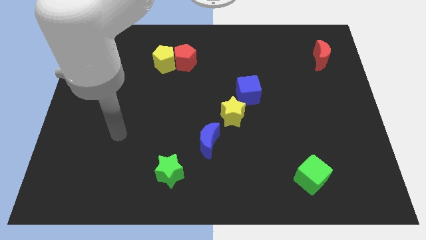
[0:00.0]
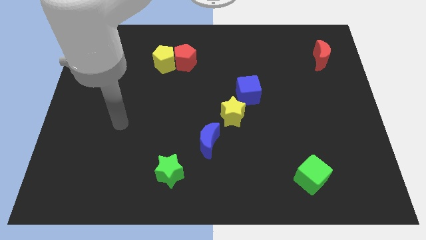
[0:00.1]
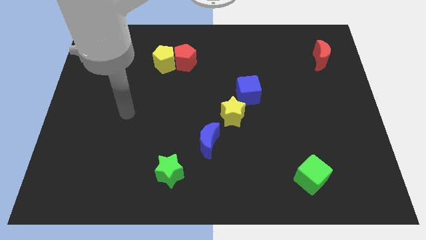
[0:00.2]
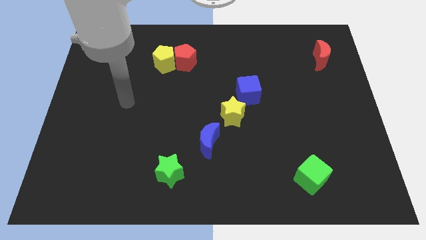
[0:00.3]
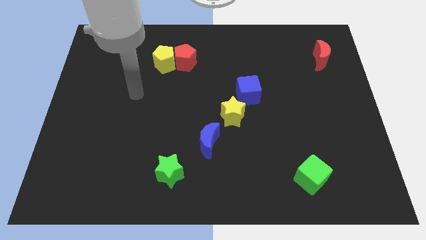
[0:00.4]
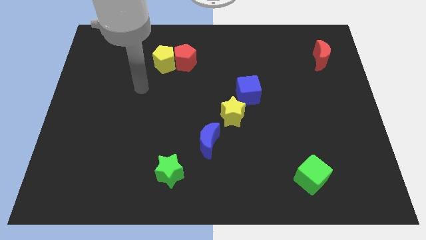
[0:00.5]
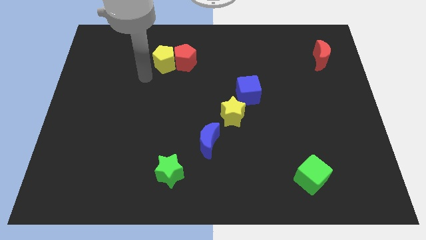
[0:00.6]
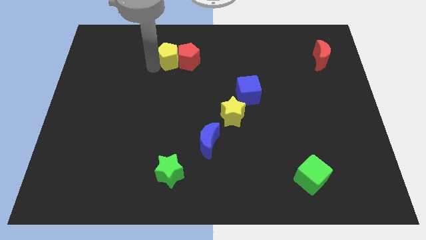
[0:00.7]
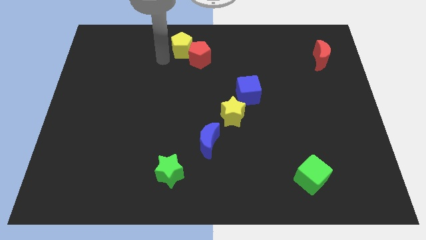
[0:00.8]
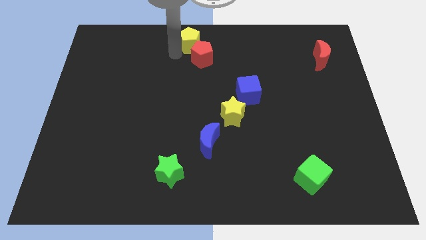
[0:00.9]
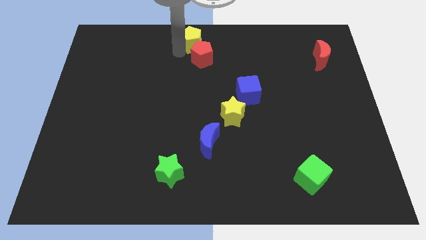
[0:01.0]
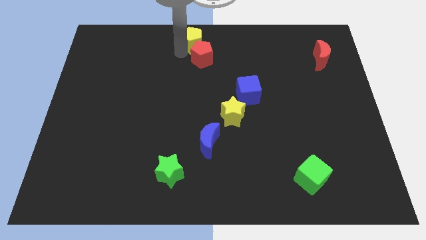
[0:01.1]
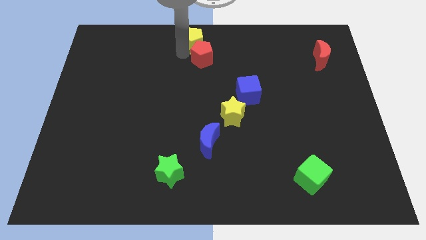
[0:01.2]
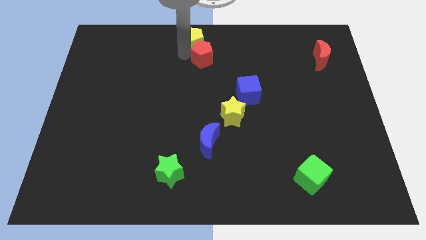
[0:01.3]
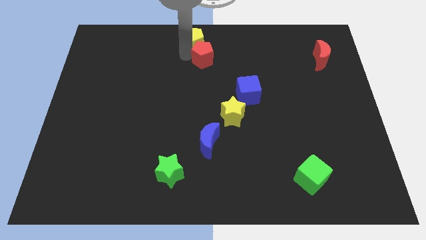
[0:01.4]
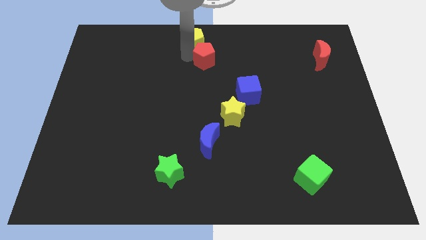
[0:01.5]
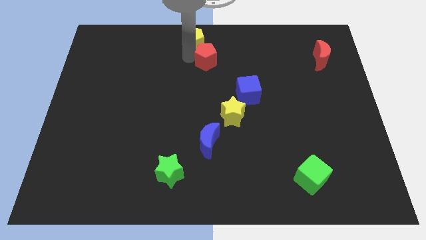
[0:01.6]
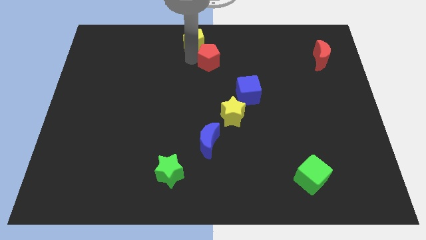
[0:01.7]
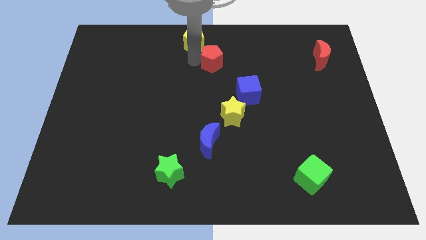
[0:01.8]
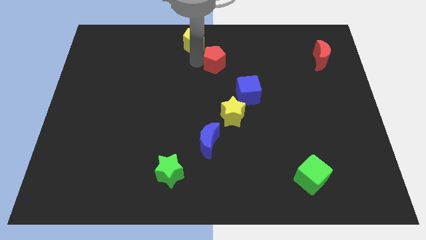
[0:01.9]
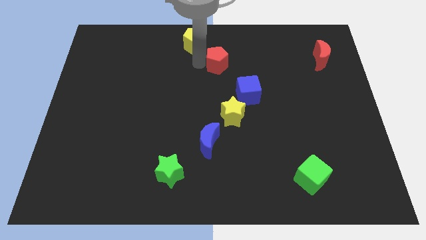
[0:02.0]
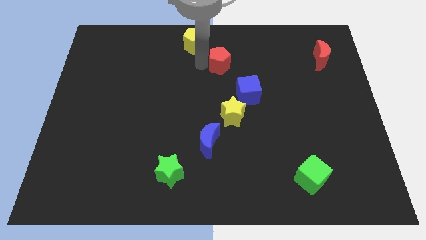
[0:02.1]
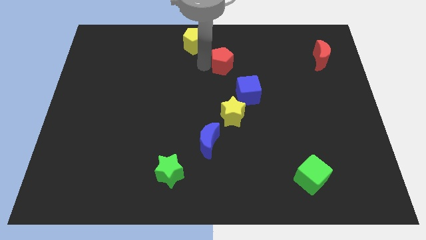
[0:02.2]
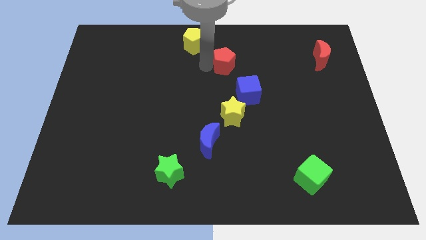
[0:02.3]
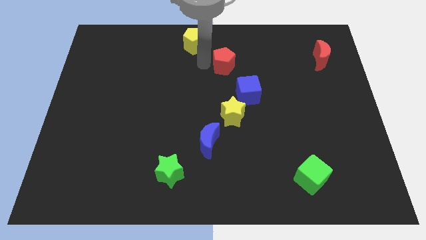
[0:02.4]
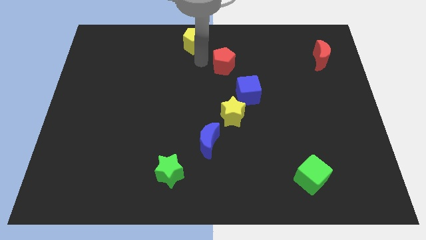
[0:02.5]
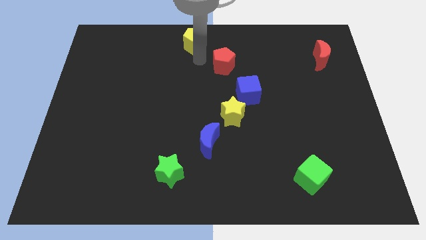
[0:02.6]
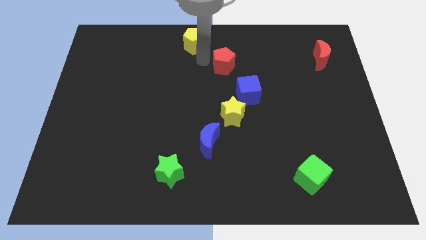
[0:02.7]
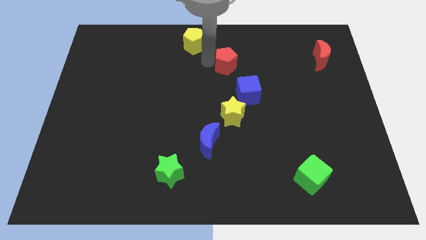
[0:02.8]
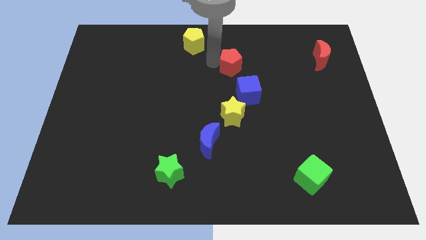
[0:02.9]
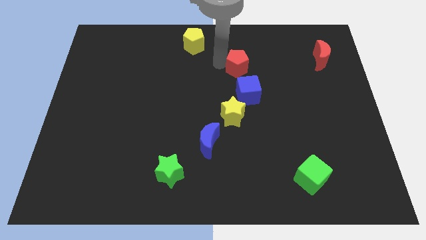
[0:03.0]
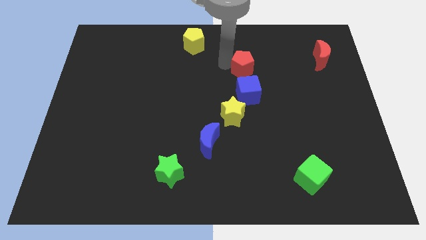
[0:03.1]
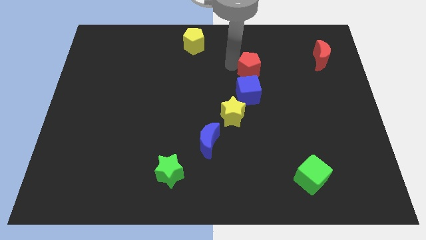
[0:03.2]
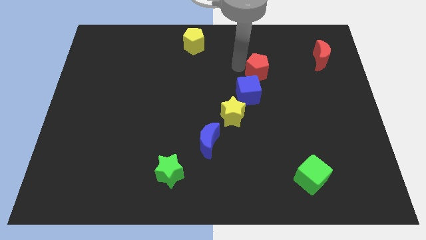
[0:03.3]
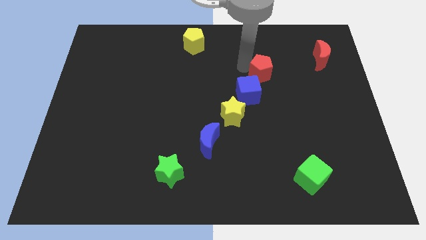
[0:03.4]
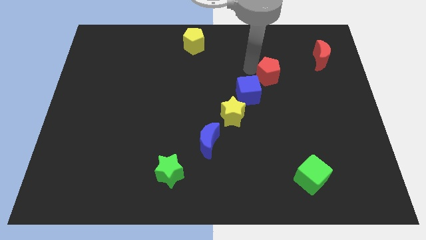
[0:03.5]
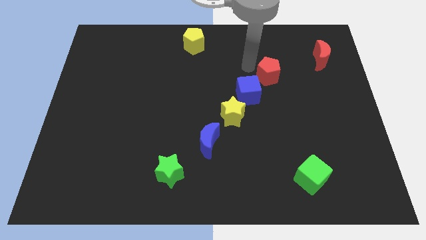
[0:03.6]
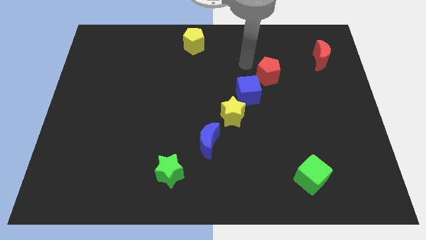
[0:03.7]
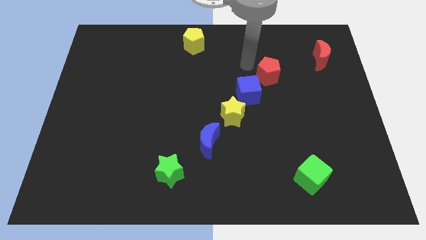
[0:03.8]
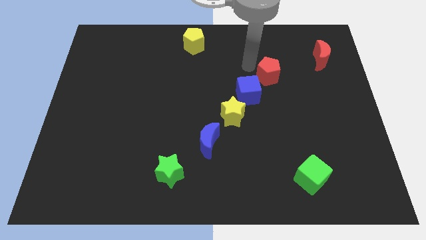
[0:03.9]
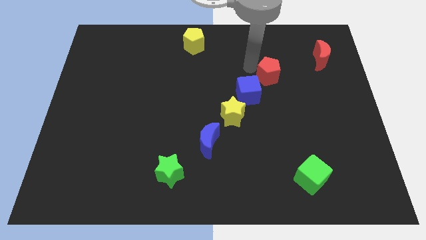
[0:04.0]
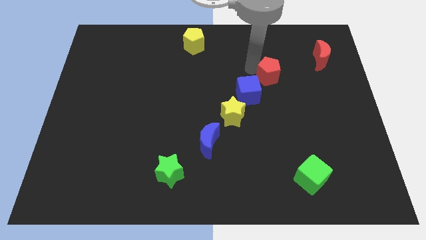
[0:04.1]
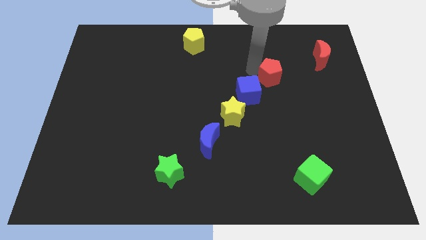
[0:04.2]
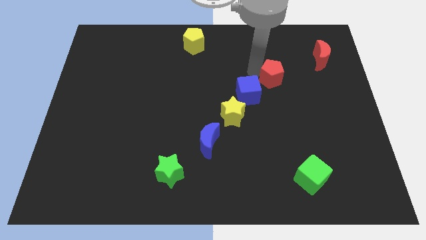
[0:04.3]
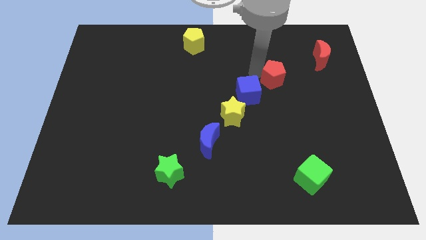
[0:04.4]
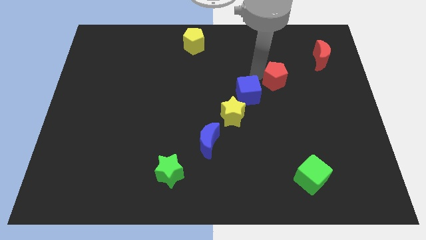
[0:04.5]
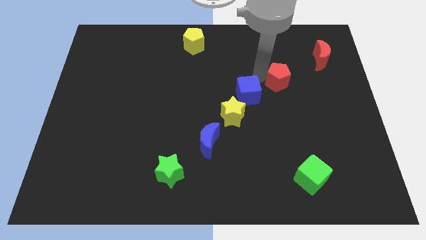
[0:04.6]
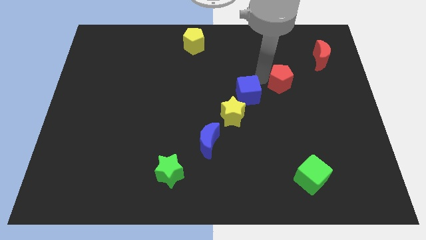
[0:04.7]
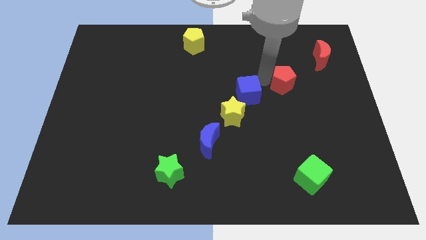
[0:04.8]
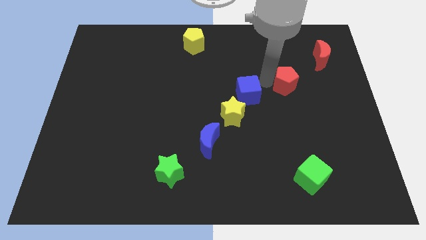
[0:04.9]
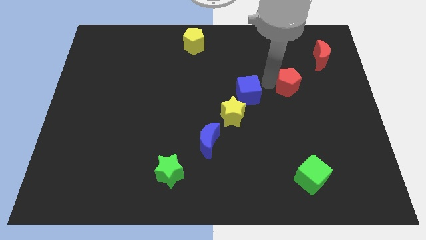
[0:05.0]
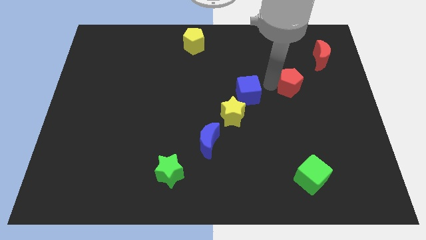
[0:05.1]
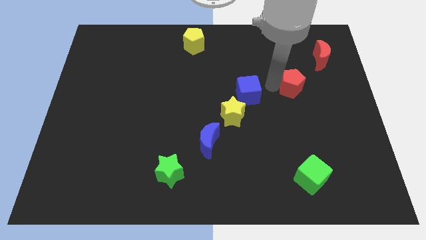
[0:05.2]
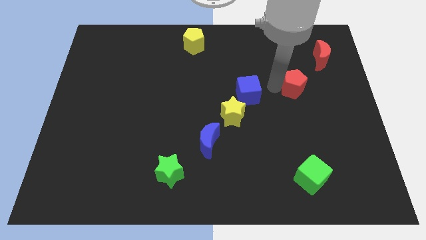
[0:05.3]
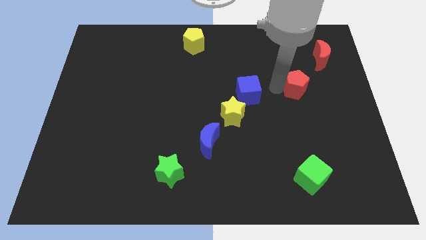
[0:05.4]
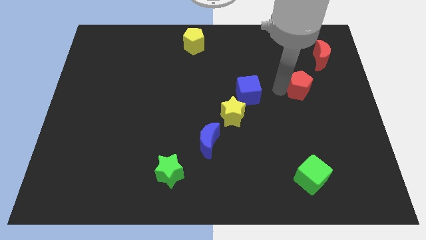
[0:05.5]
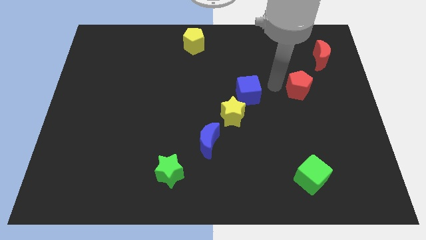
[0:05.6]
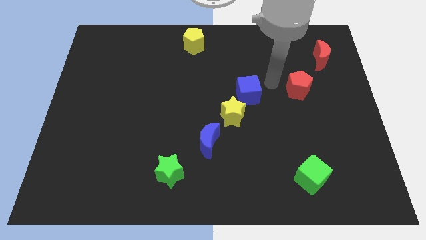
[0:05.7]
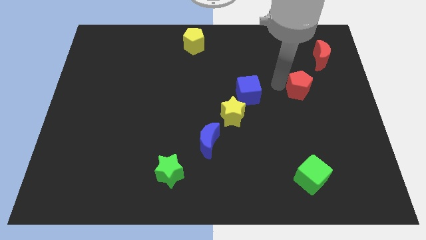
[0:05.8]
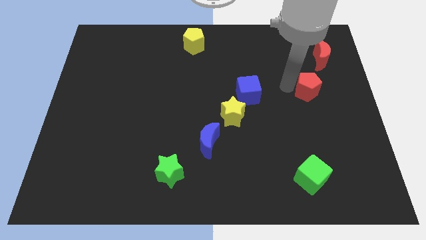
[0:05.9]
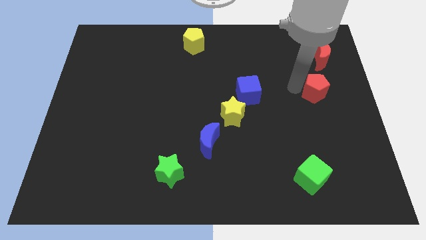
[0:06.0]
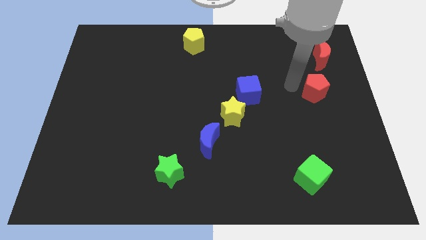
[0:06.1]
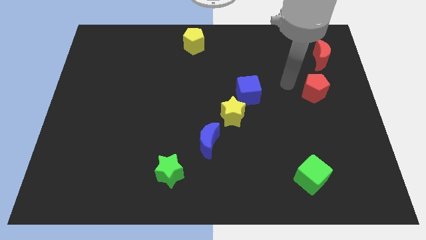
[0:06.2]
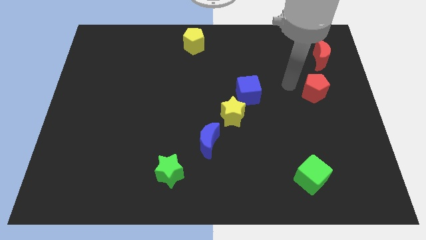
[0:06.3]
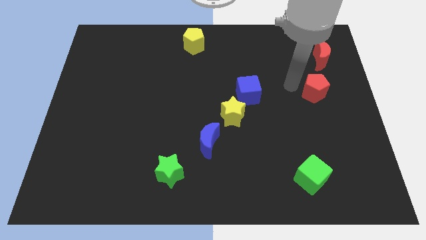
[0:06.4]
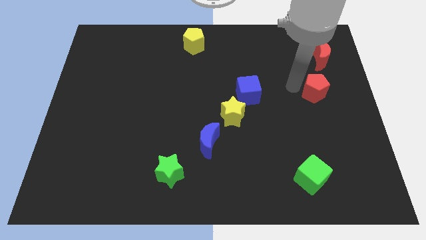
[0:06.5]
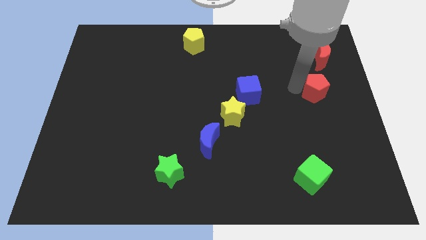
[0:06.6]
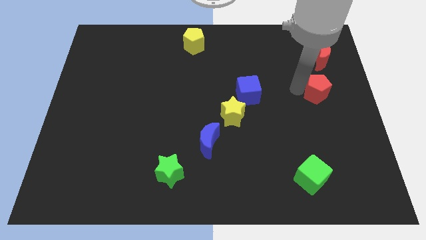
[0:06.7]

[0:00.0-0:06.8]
put the red pentagon to the center right
